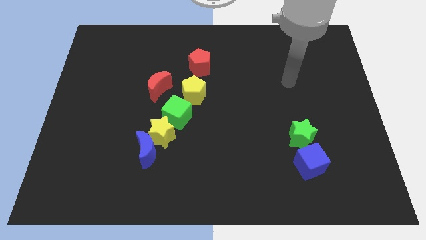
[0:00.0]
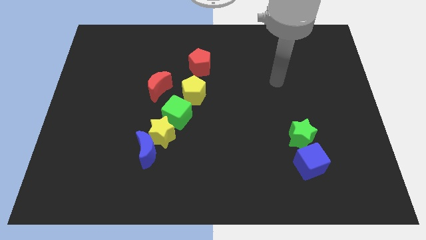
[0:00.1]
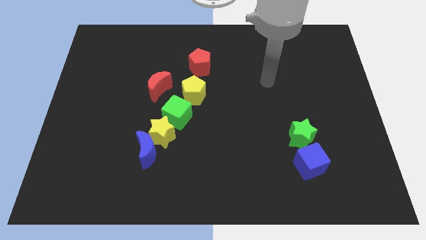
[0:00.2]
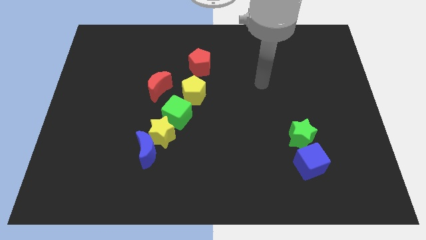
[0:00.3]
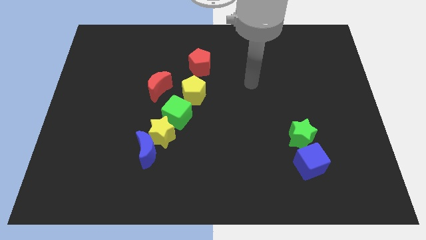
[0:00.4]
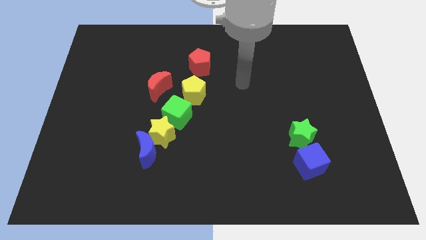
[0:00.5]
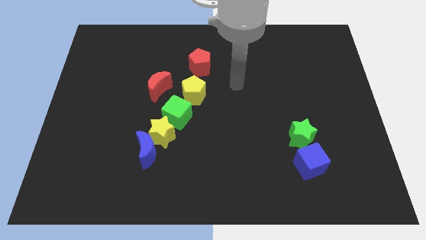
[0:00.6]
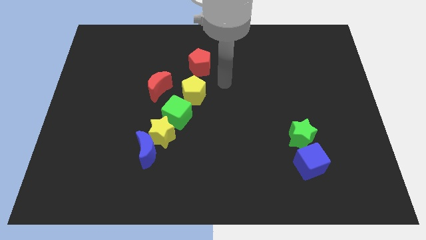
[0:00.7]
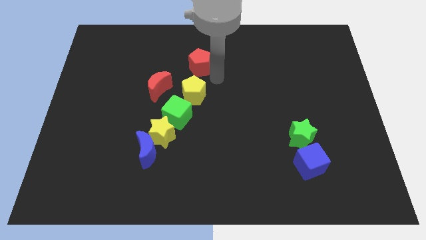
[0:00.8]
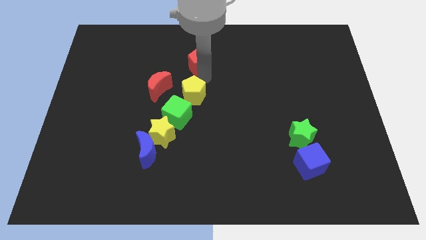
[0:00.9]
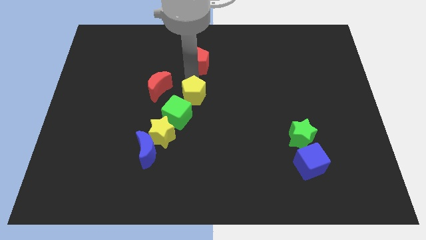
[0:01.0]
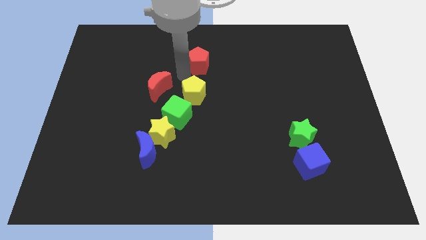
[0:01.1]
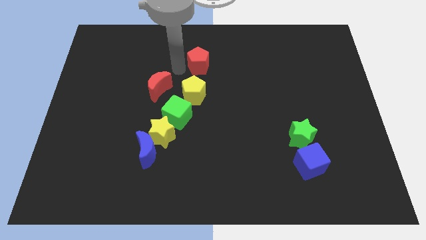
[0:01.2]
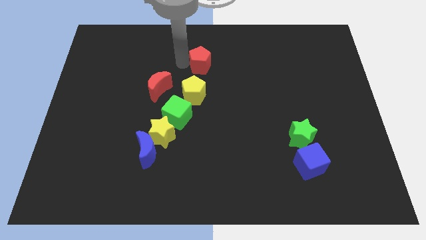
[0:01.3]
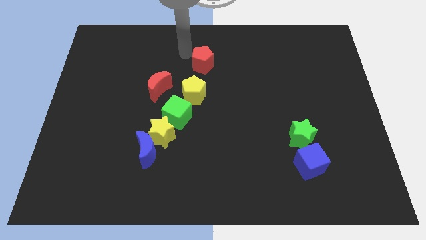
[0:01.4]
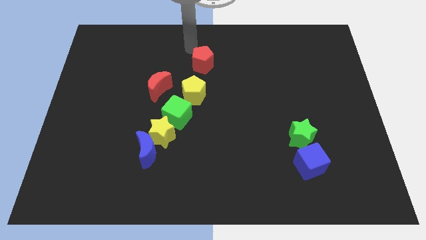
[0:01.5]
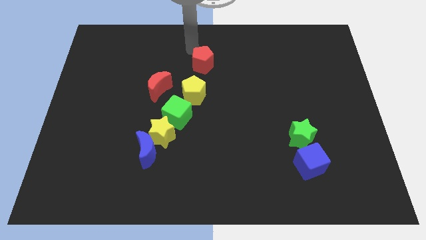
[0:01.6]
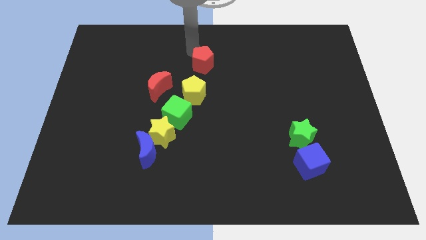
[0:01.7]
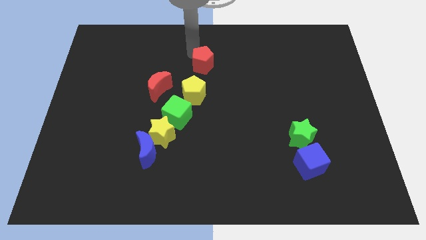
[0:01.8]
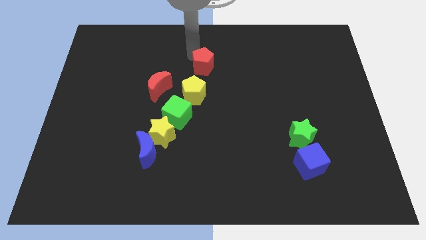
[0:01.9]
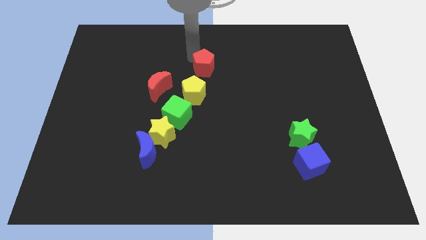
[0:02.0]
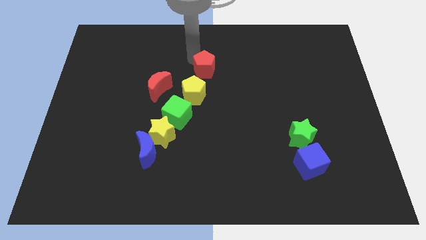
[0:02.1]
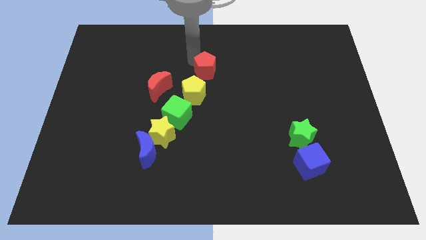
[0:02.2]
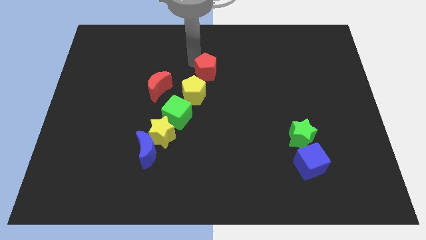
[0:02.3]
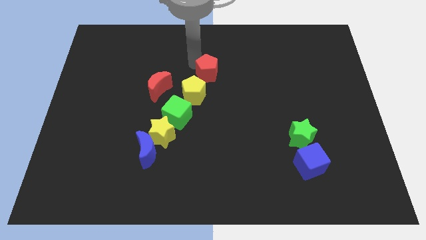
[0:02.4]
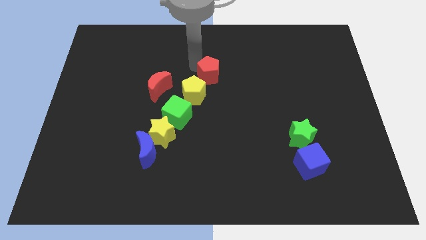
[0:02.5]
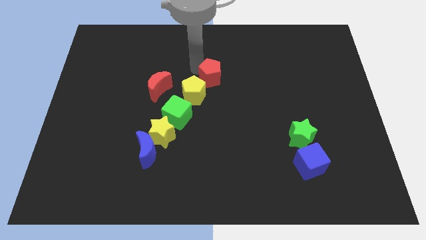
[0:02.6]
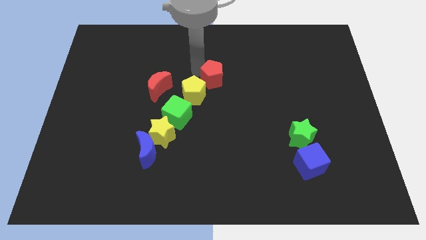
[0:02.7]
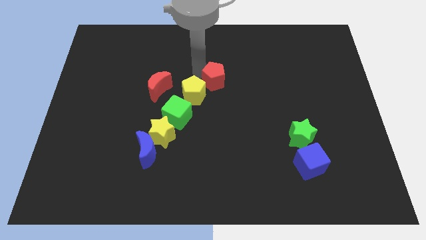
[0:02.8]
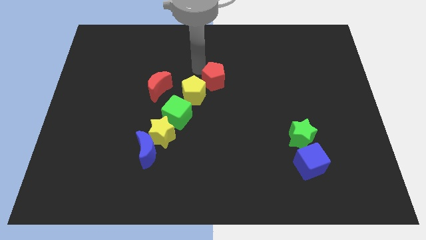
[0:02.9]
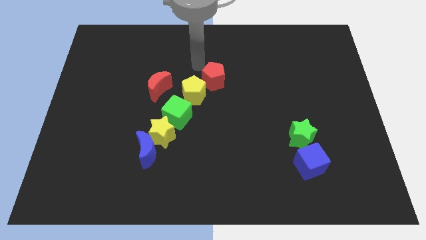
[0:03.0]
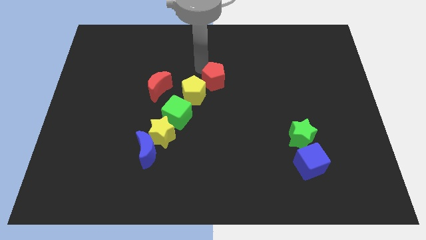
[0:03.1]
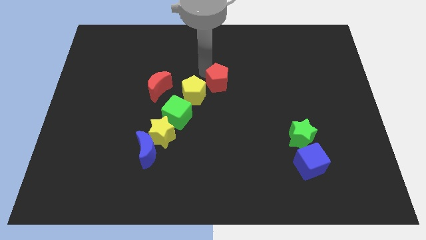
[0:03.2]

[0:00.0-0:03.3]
slide the red pentagon a bit down and right

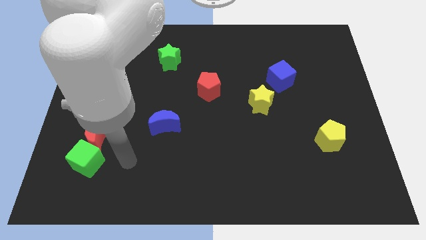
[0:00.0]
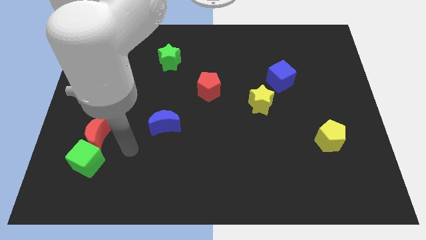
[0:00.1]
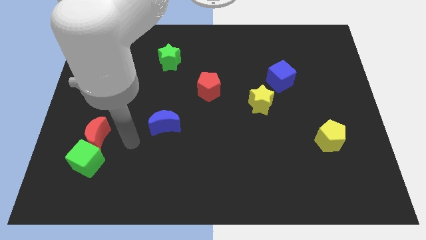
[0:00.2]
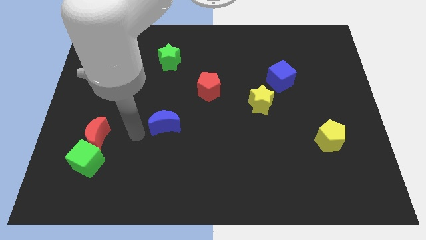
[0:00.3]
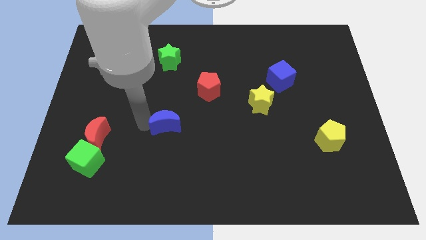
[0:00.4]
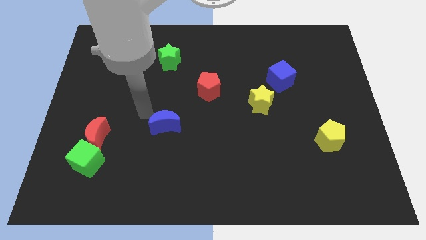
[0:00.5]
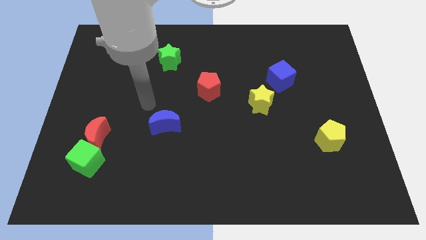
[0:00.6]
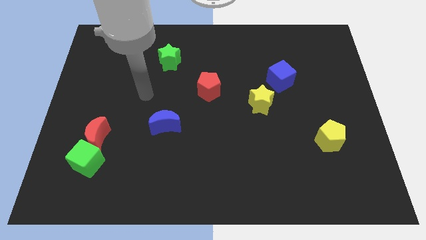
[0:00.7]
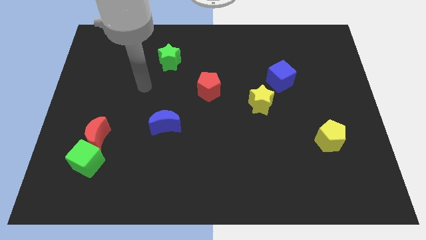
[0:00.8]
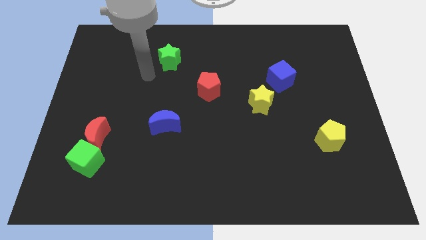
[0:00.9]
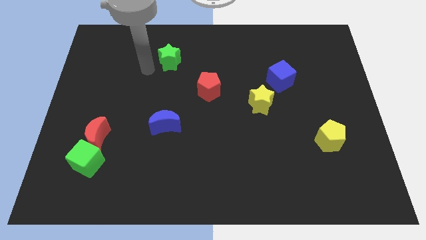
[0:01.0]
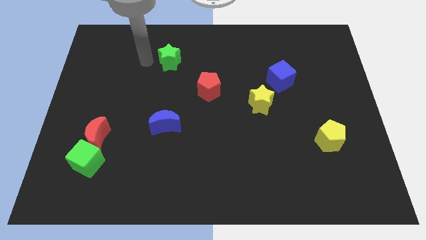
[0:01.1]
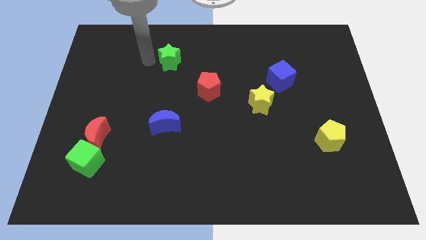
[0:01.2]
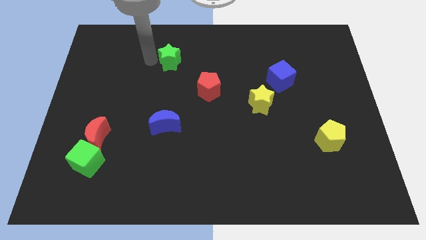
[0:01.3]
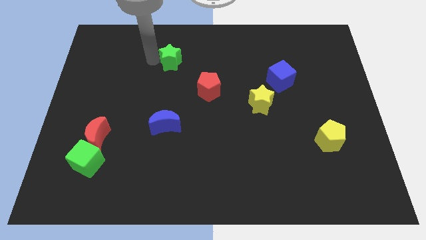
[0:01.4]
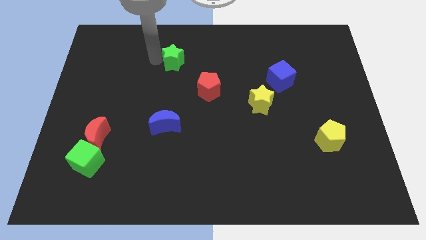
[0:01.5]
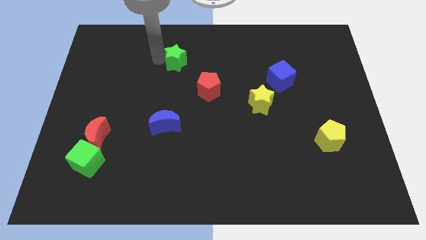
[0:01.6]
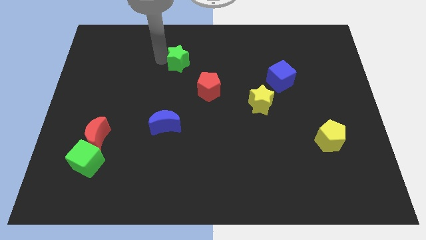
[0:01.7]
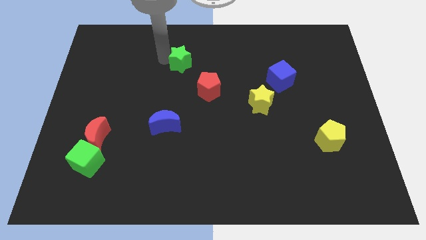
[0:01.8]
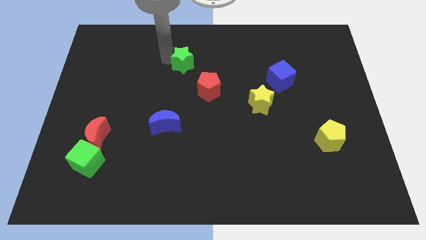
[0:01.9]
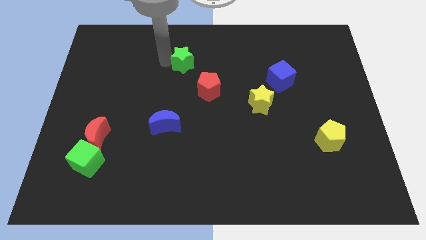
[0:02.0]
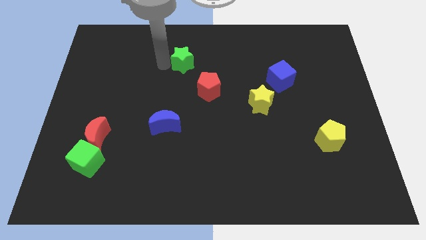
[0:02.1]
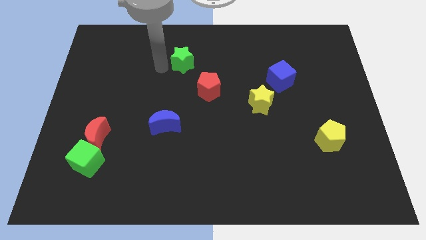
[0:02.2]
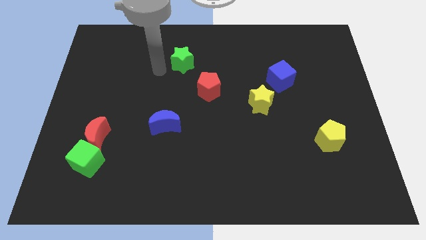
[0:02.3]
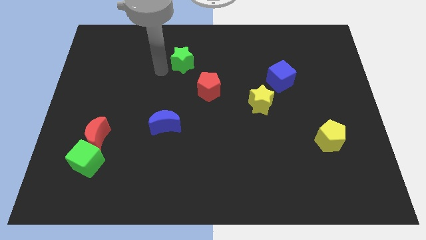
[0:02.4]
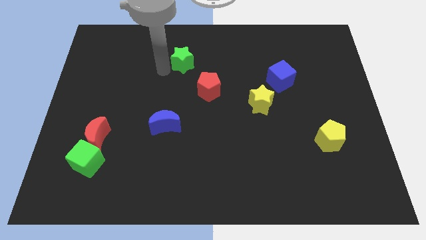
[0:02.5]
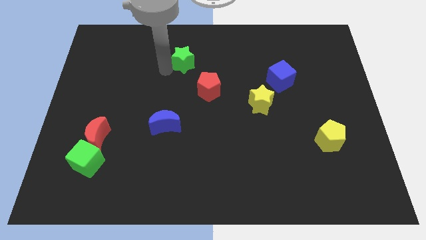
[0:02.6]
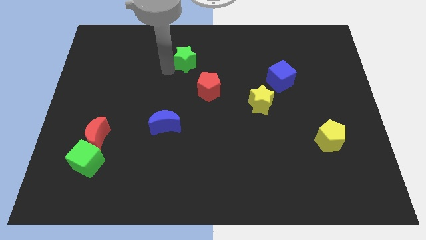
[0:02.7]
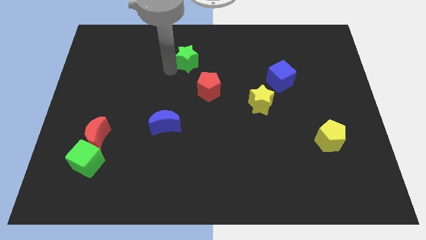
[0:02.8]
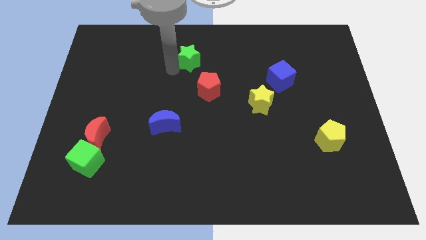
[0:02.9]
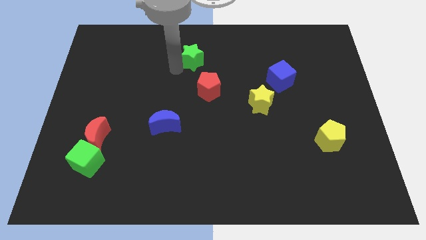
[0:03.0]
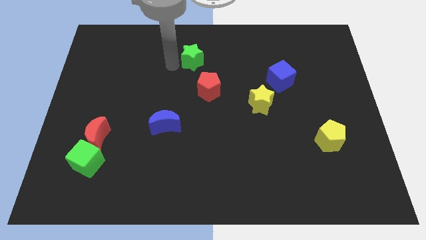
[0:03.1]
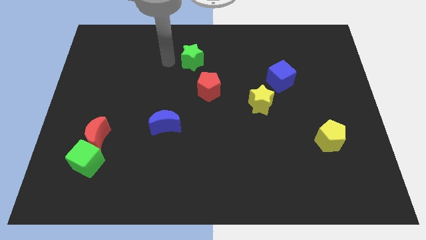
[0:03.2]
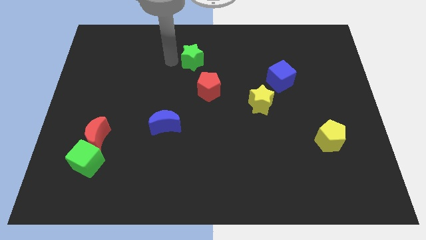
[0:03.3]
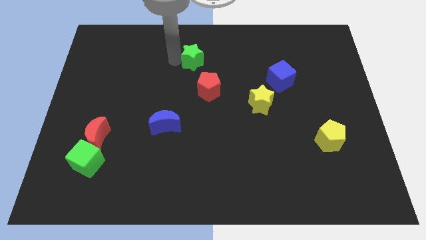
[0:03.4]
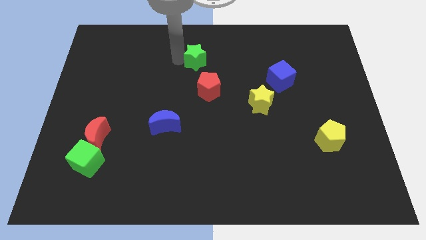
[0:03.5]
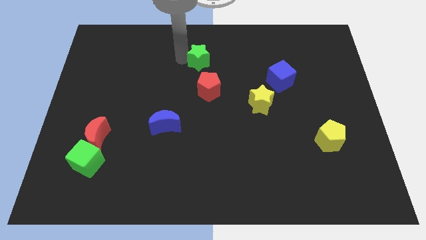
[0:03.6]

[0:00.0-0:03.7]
slightly move the green star right

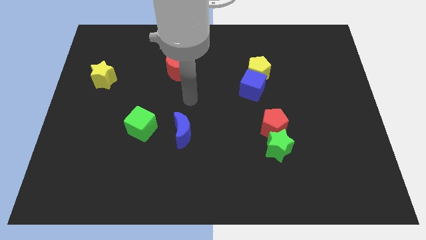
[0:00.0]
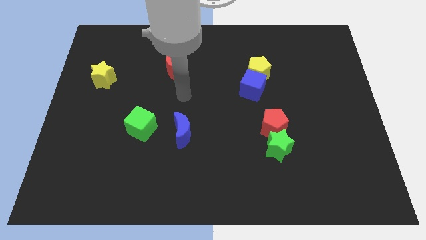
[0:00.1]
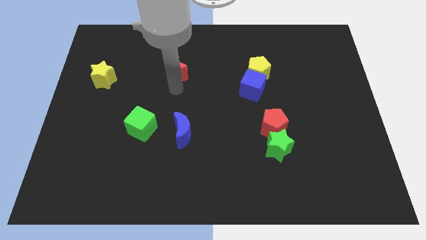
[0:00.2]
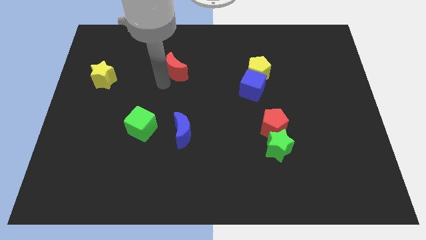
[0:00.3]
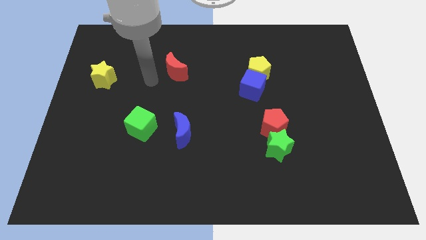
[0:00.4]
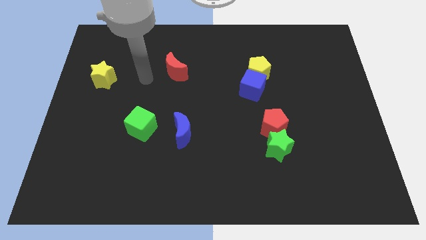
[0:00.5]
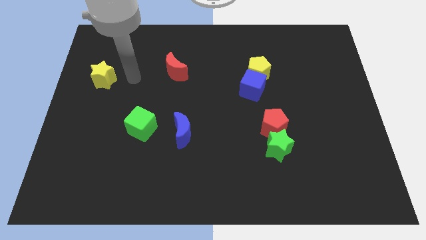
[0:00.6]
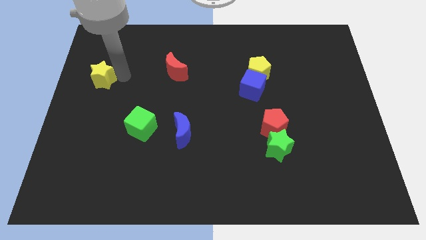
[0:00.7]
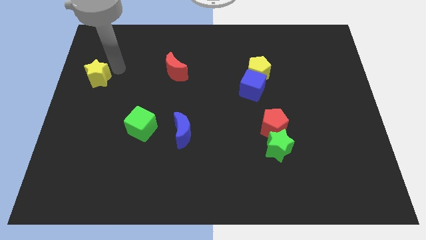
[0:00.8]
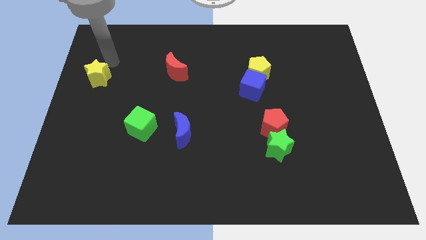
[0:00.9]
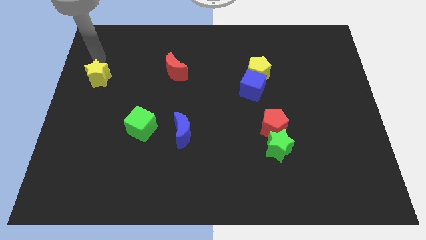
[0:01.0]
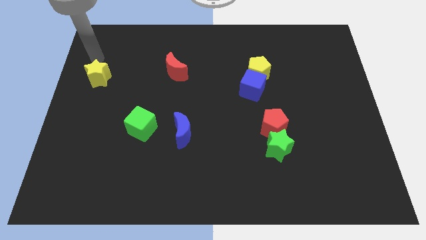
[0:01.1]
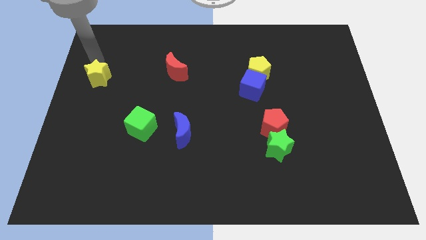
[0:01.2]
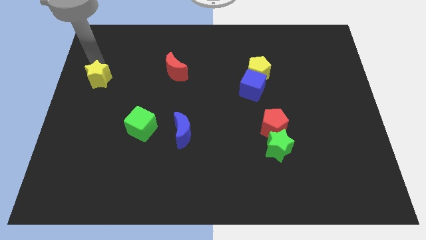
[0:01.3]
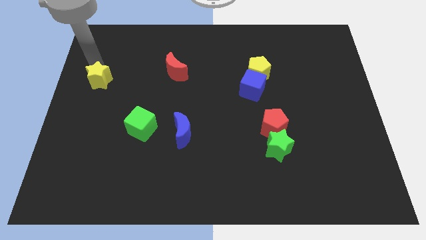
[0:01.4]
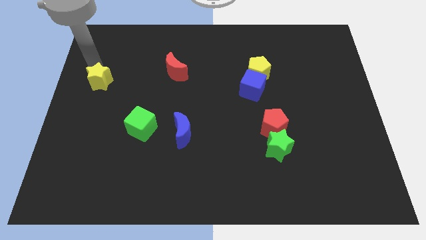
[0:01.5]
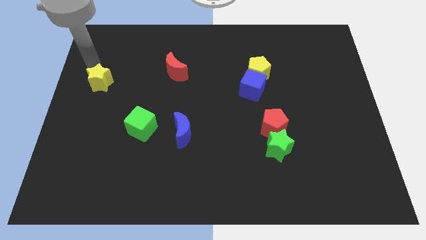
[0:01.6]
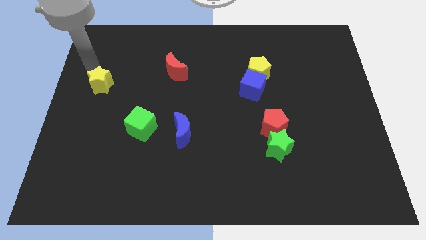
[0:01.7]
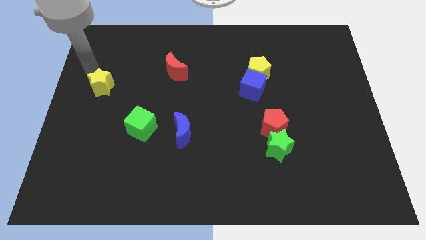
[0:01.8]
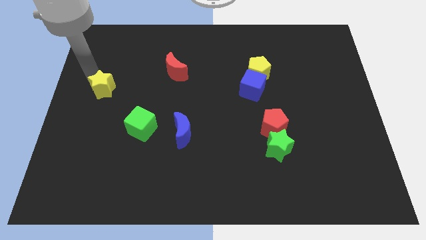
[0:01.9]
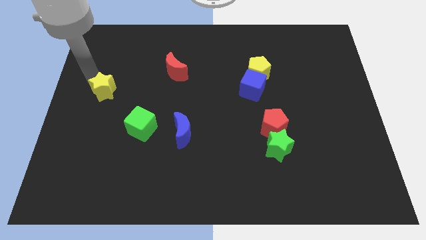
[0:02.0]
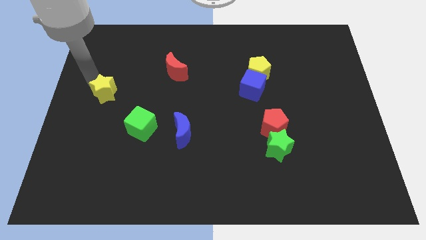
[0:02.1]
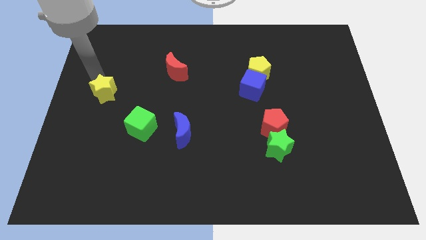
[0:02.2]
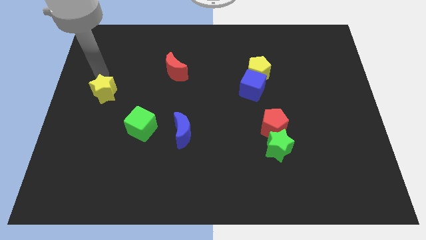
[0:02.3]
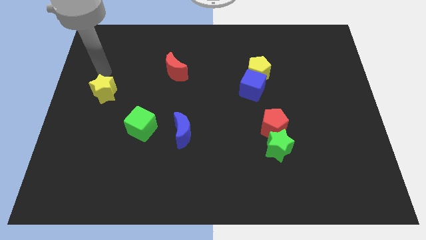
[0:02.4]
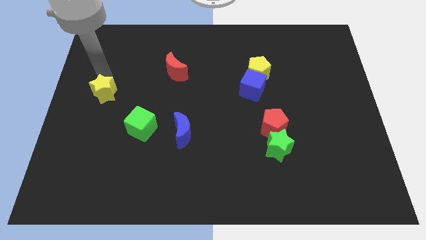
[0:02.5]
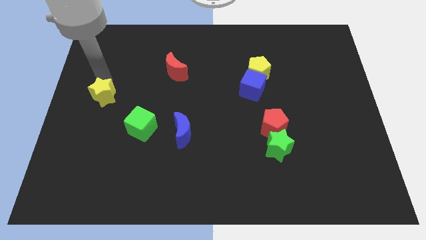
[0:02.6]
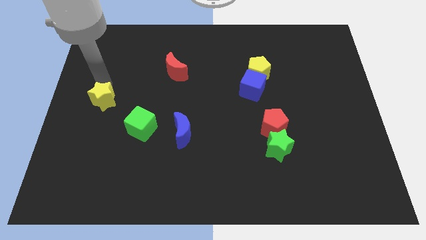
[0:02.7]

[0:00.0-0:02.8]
slide the yellow star slightly down
